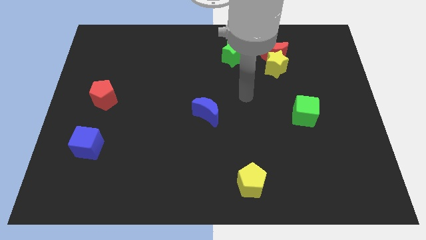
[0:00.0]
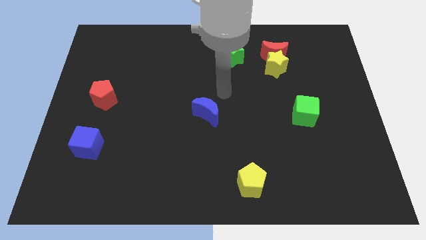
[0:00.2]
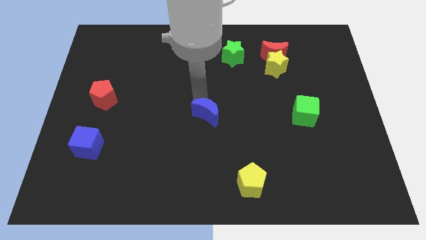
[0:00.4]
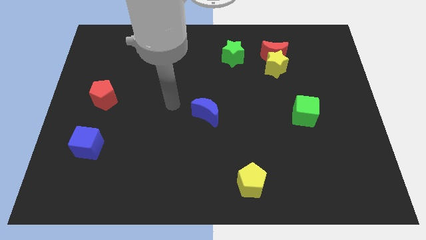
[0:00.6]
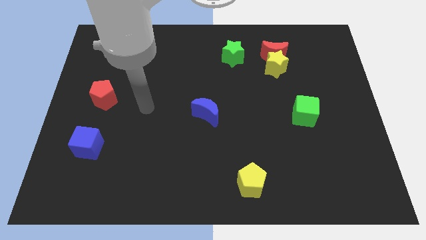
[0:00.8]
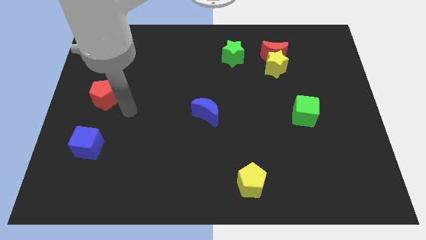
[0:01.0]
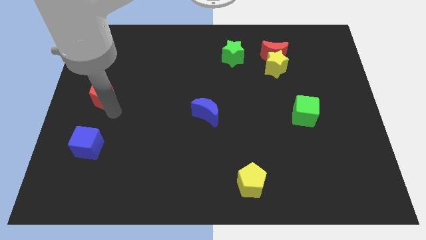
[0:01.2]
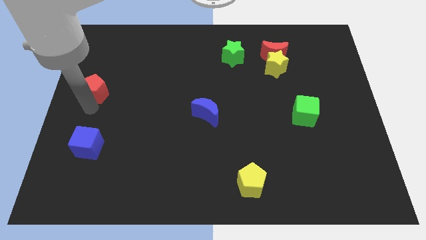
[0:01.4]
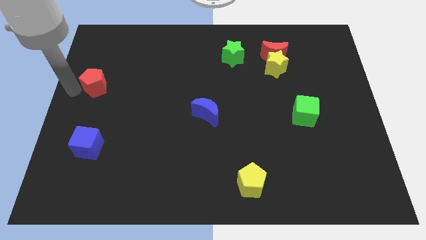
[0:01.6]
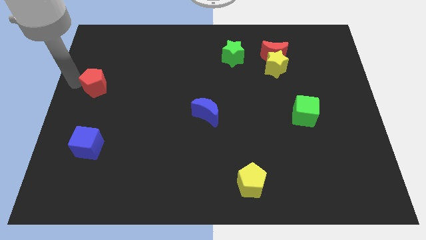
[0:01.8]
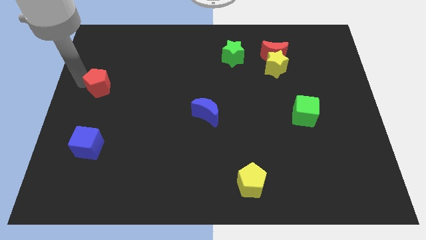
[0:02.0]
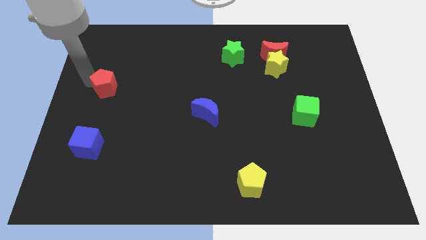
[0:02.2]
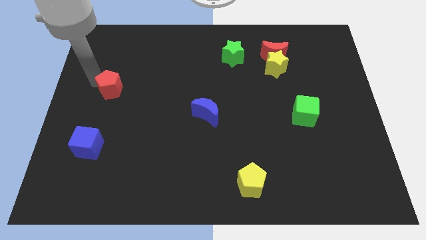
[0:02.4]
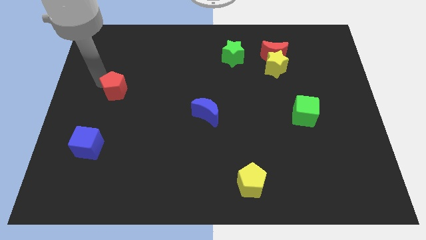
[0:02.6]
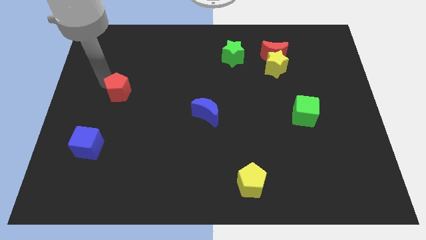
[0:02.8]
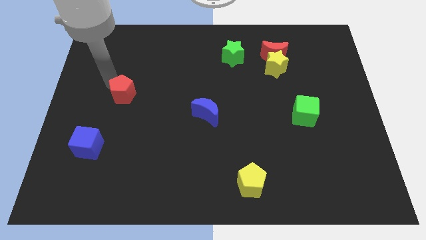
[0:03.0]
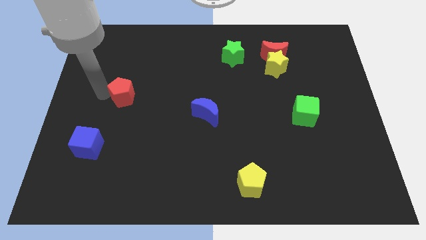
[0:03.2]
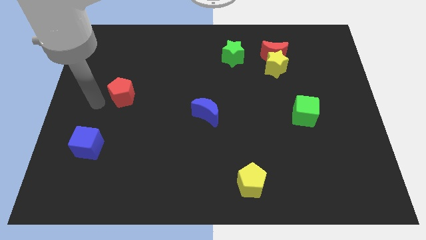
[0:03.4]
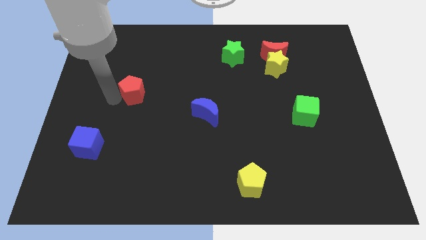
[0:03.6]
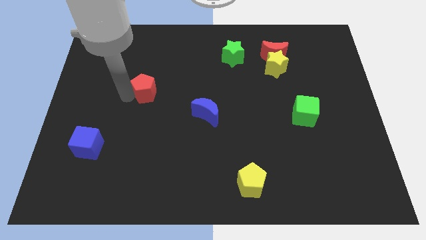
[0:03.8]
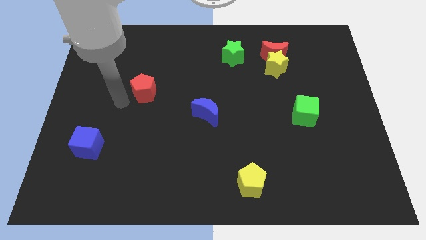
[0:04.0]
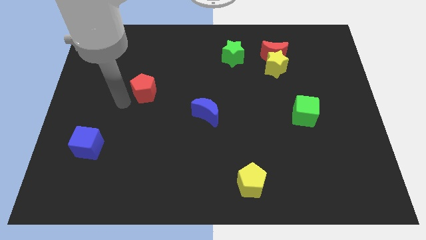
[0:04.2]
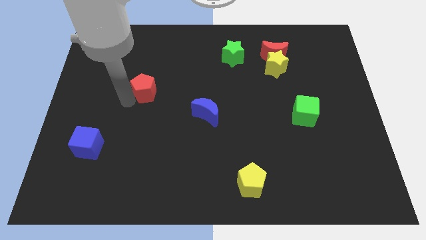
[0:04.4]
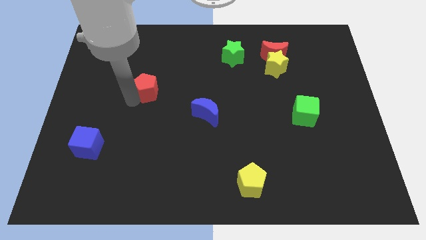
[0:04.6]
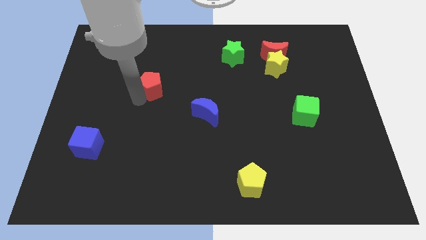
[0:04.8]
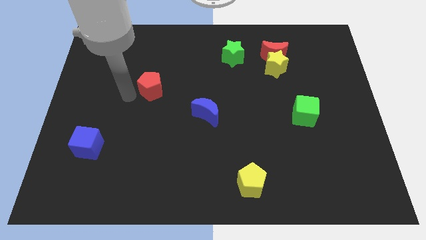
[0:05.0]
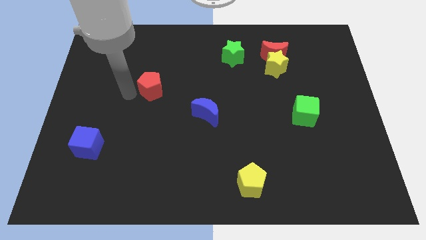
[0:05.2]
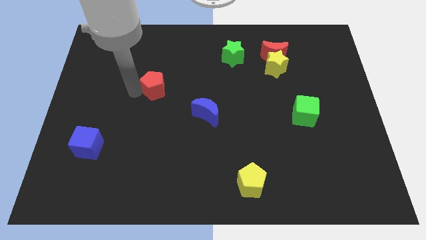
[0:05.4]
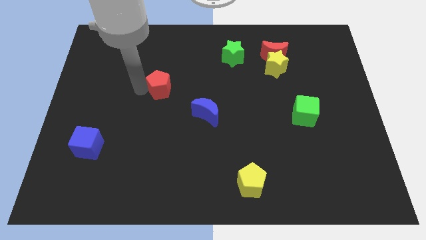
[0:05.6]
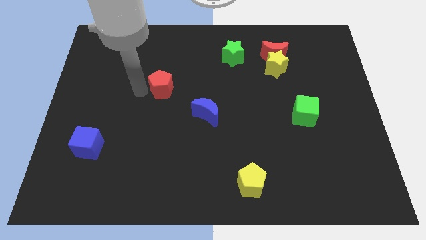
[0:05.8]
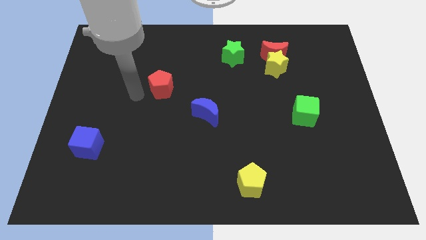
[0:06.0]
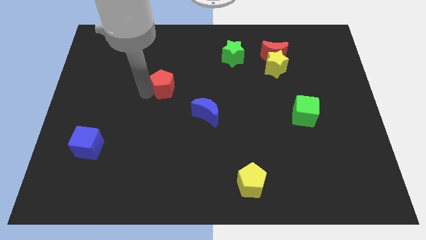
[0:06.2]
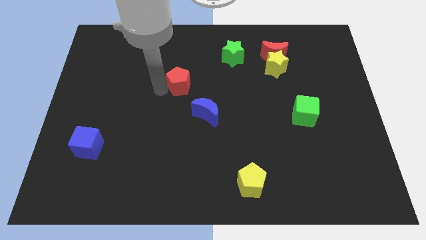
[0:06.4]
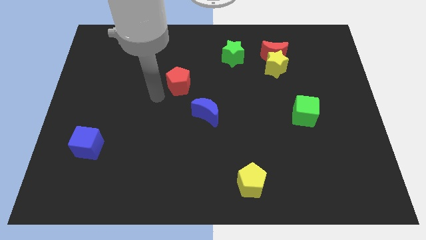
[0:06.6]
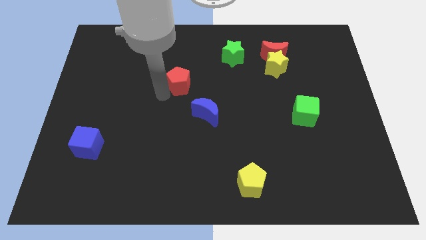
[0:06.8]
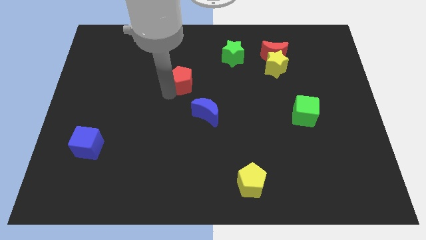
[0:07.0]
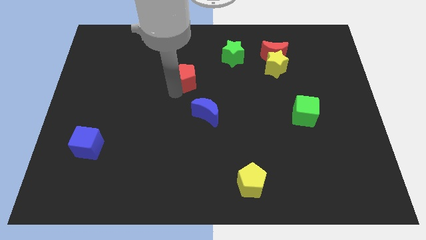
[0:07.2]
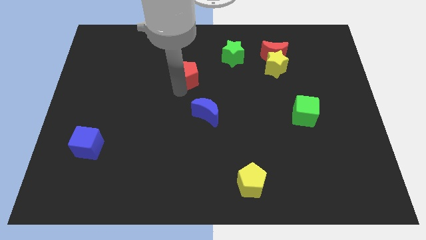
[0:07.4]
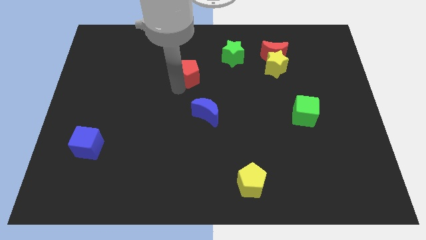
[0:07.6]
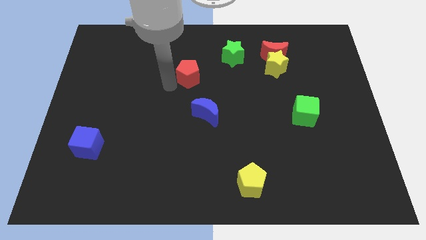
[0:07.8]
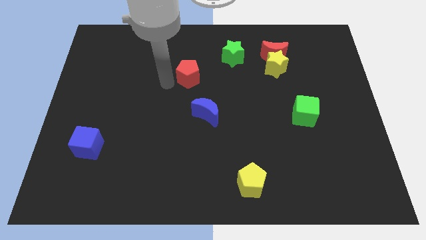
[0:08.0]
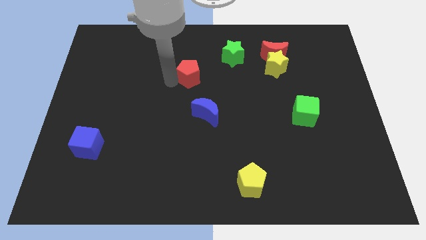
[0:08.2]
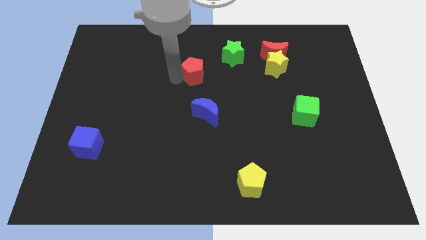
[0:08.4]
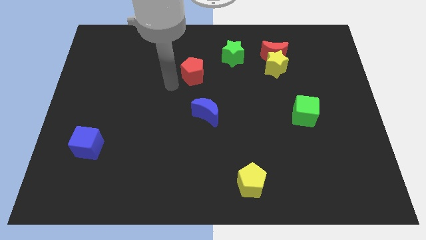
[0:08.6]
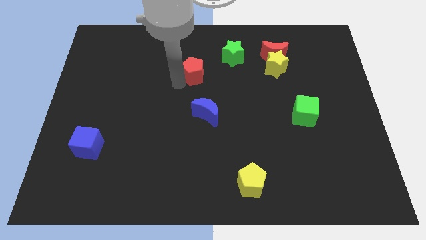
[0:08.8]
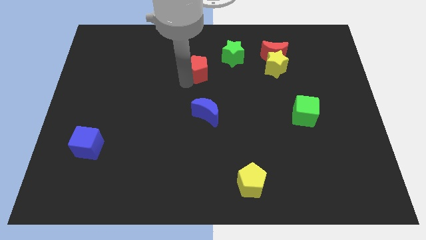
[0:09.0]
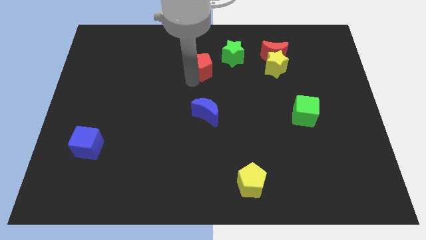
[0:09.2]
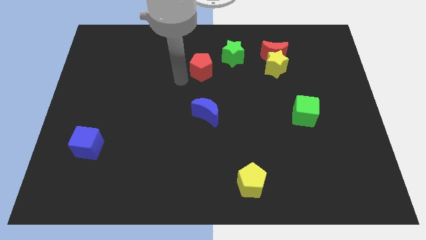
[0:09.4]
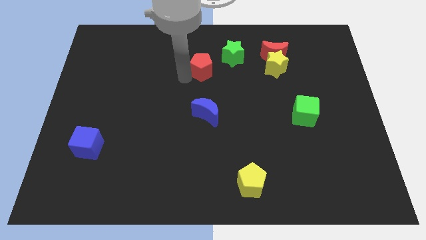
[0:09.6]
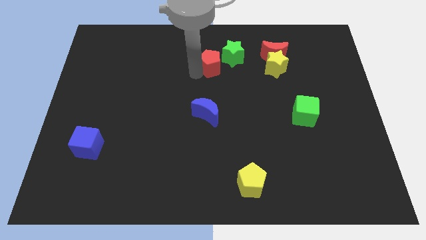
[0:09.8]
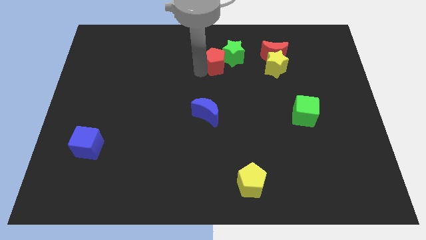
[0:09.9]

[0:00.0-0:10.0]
put the red pentagon towards the green star

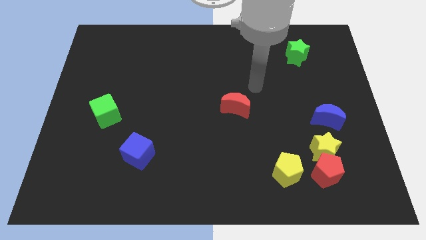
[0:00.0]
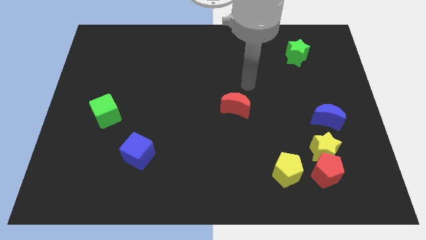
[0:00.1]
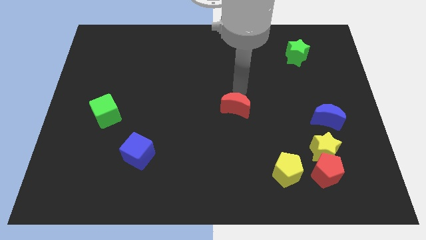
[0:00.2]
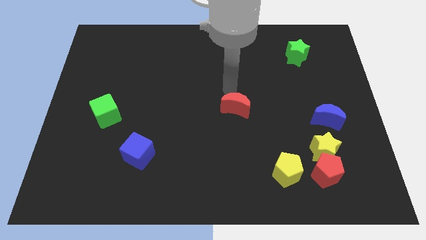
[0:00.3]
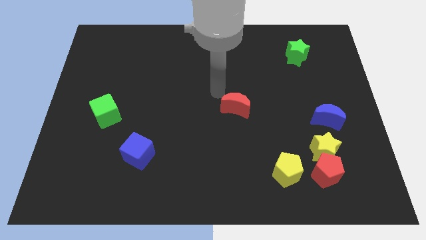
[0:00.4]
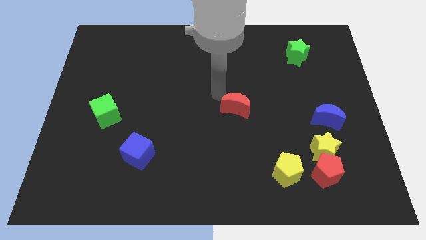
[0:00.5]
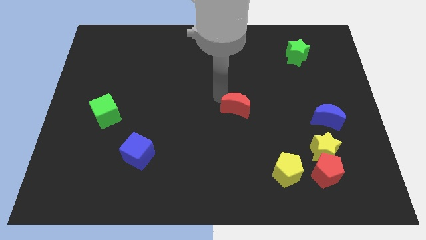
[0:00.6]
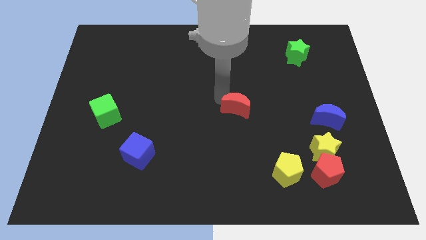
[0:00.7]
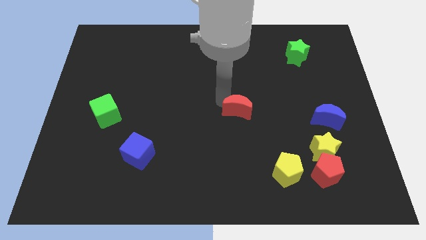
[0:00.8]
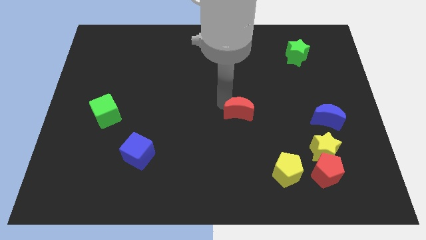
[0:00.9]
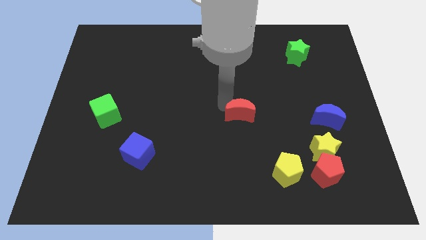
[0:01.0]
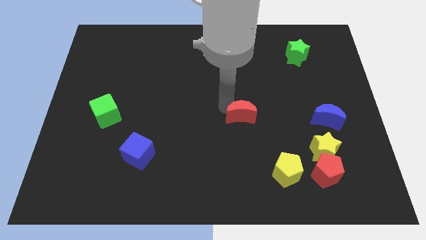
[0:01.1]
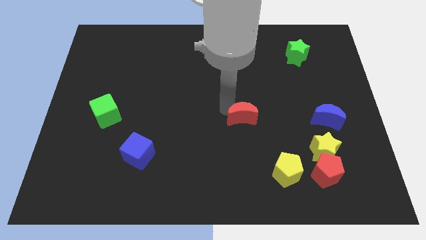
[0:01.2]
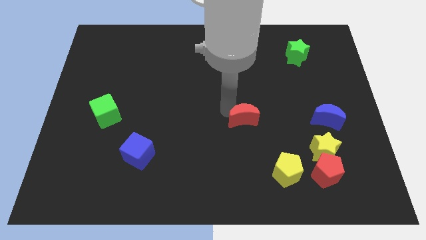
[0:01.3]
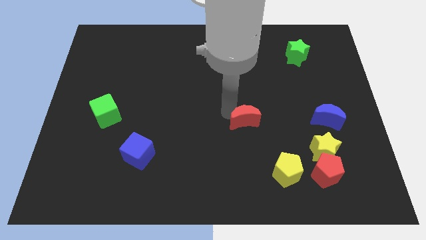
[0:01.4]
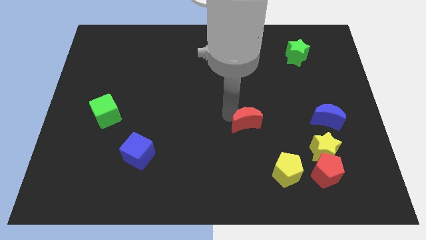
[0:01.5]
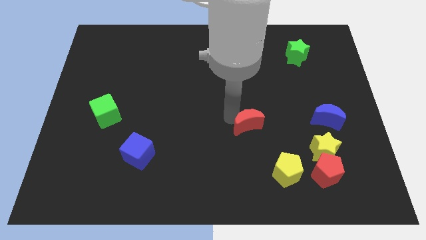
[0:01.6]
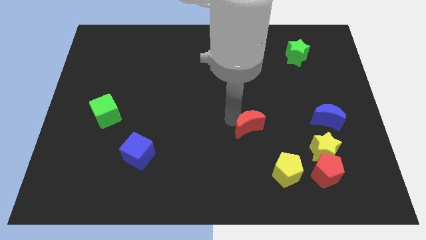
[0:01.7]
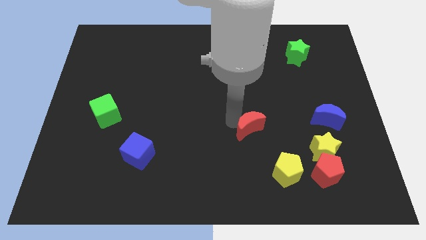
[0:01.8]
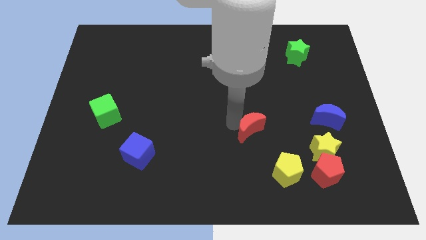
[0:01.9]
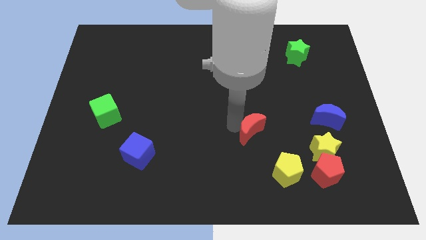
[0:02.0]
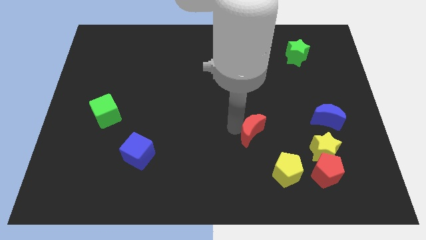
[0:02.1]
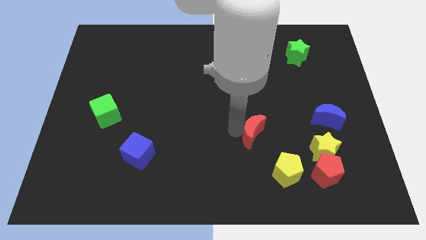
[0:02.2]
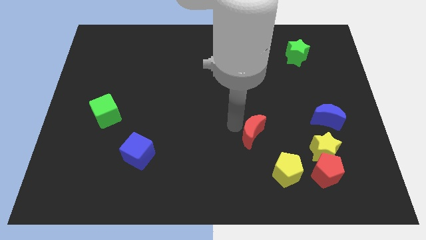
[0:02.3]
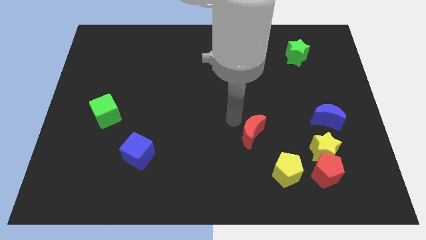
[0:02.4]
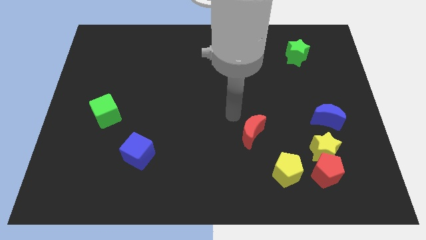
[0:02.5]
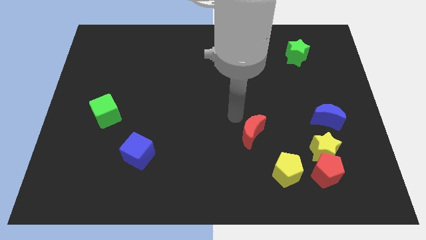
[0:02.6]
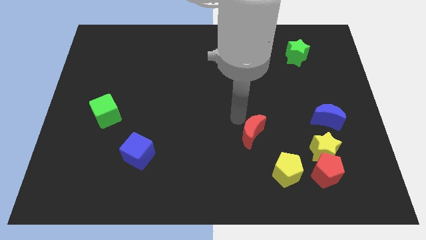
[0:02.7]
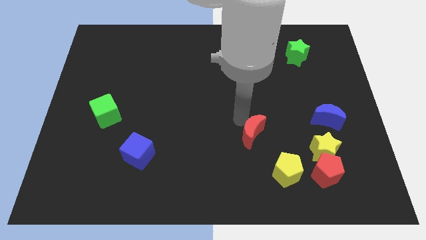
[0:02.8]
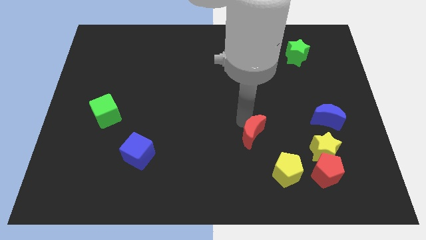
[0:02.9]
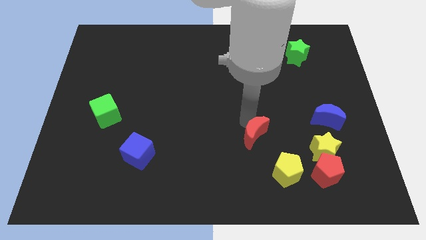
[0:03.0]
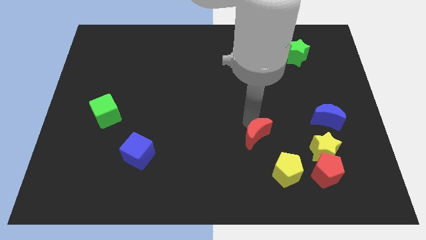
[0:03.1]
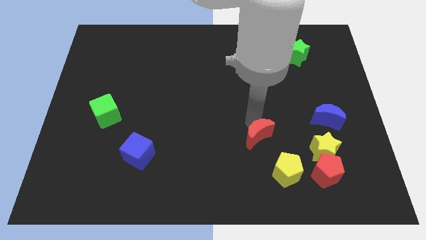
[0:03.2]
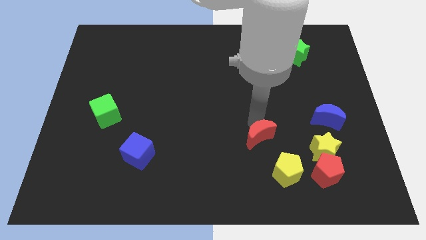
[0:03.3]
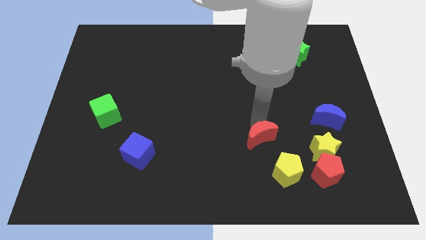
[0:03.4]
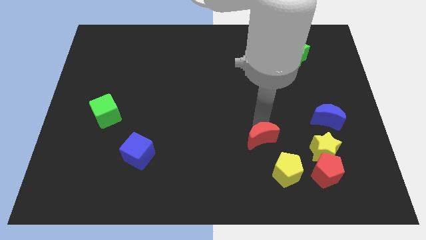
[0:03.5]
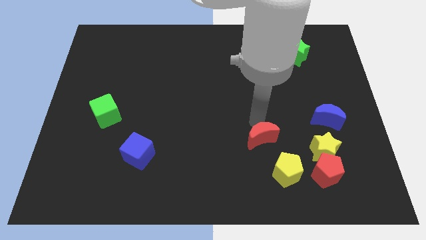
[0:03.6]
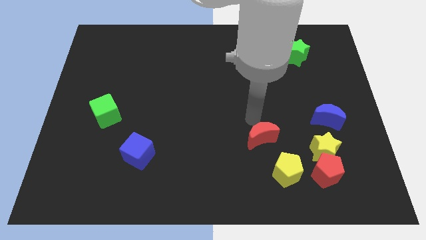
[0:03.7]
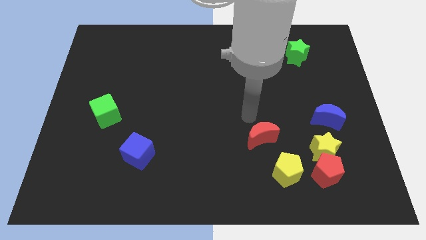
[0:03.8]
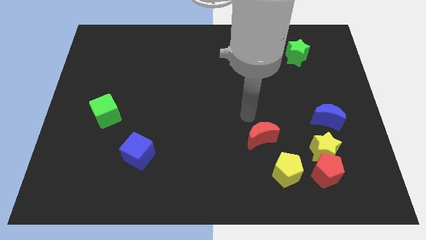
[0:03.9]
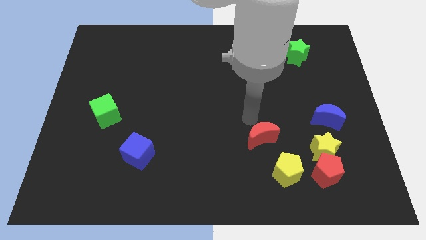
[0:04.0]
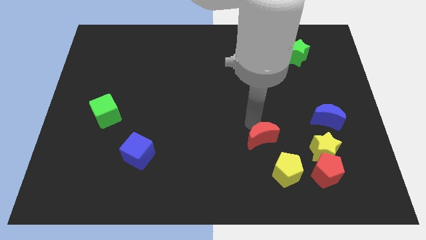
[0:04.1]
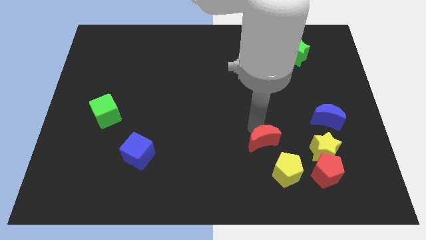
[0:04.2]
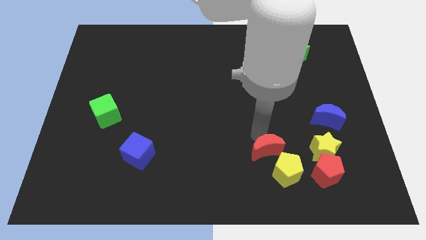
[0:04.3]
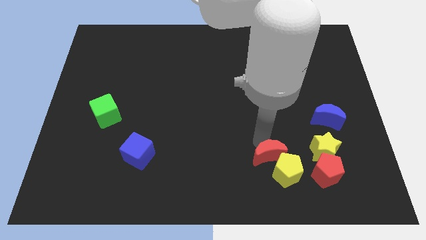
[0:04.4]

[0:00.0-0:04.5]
push the red moon to the yellow pentagon
